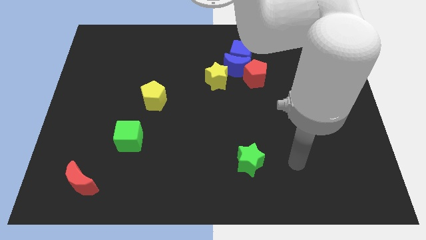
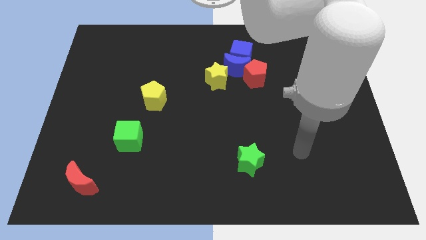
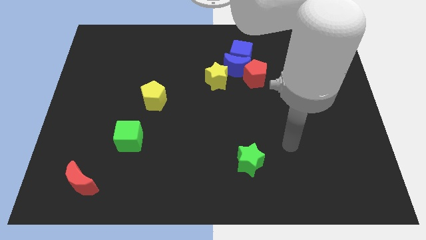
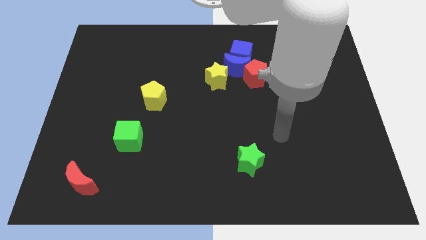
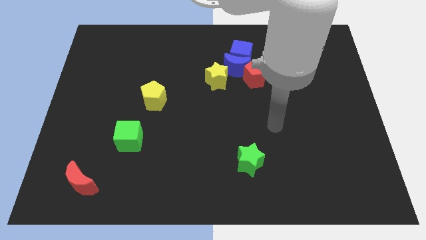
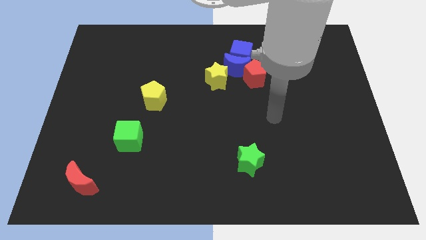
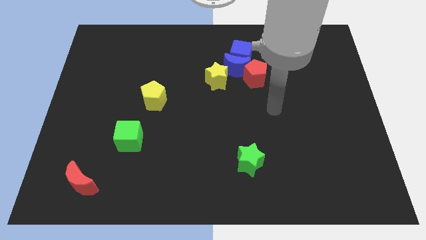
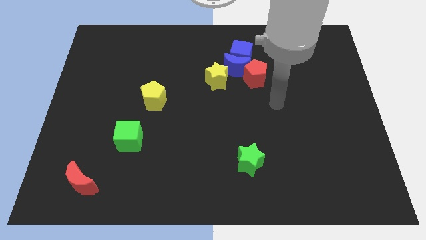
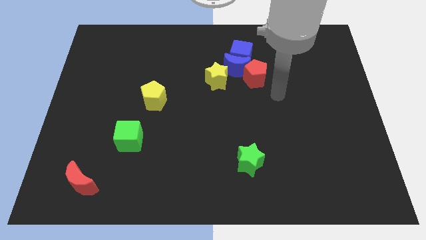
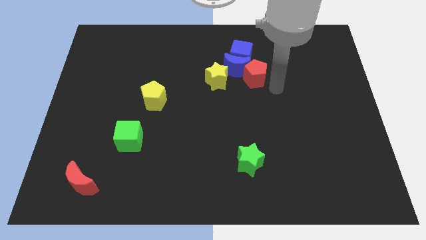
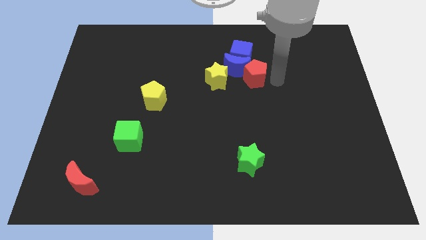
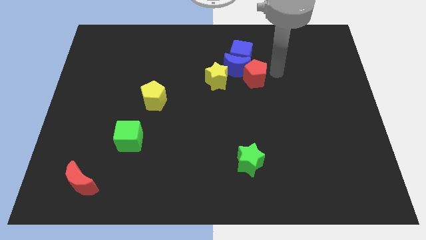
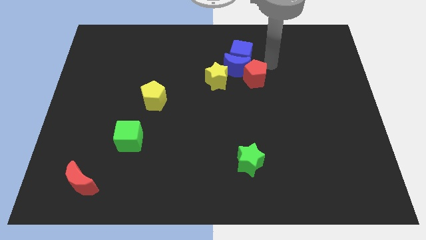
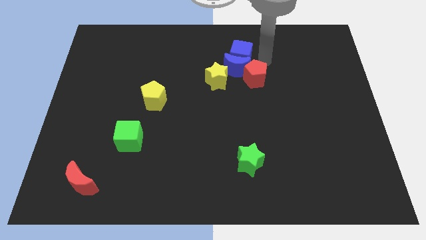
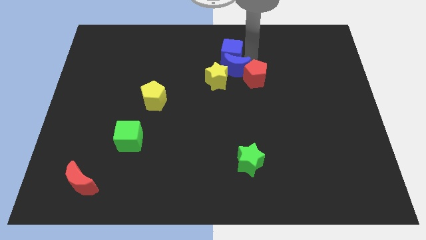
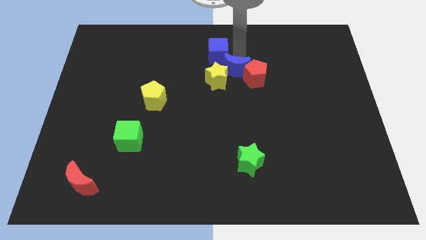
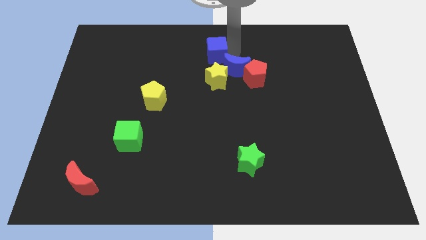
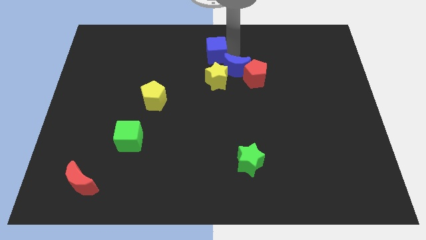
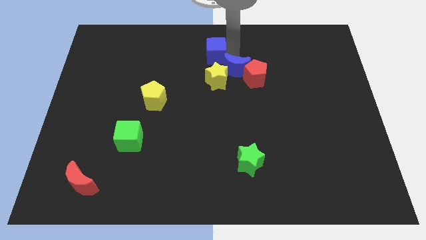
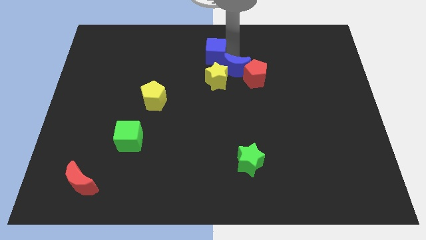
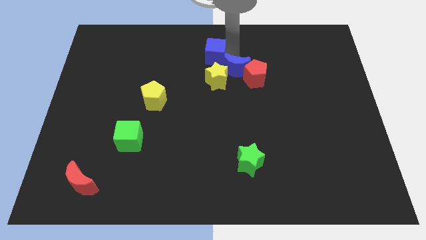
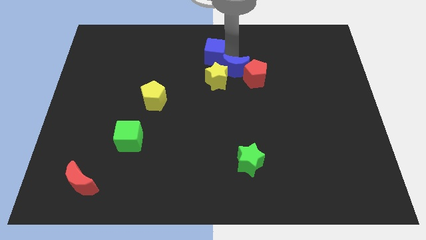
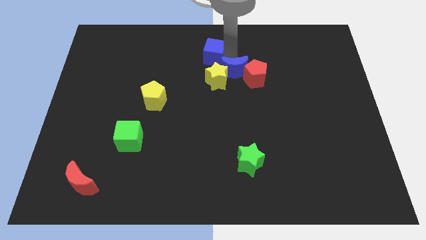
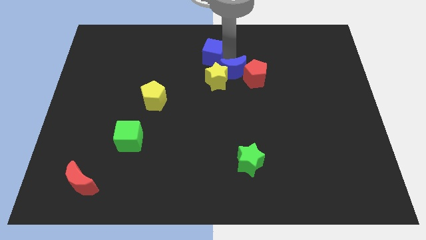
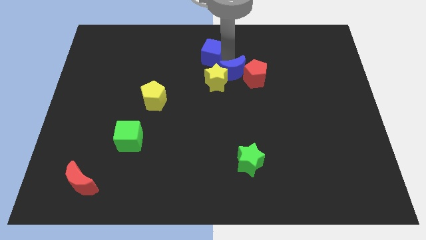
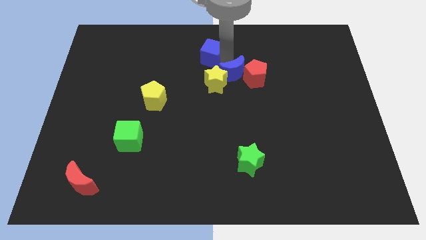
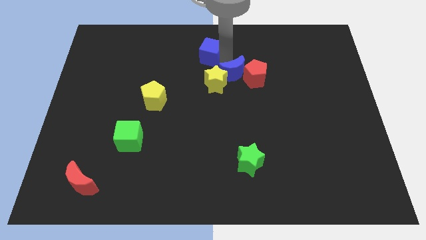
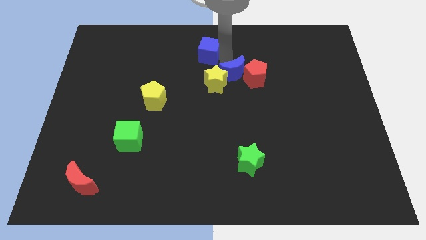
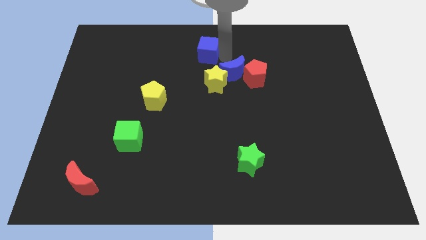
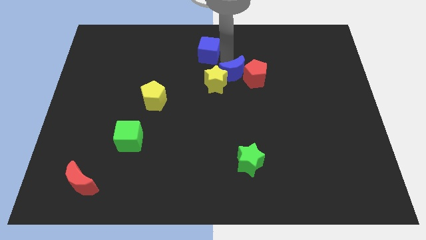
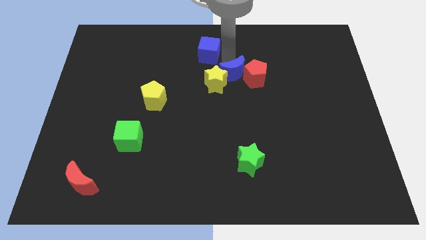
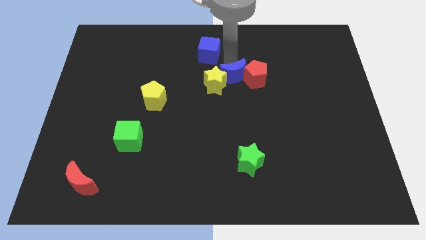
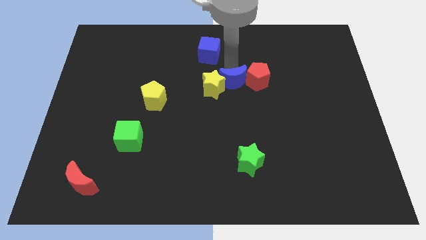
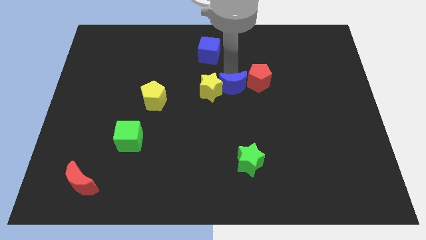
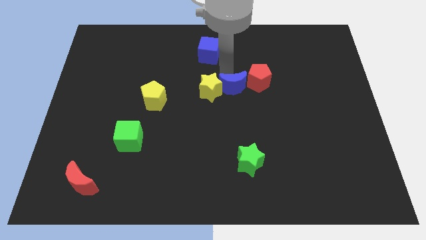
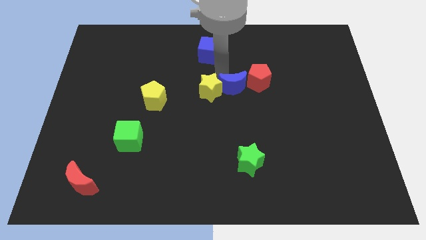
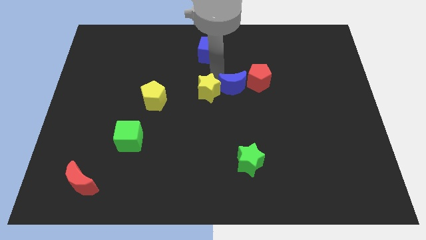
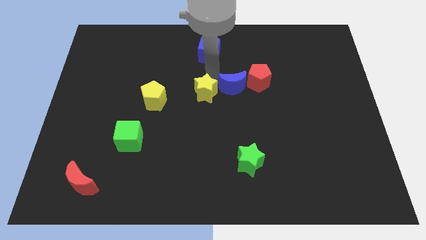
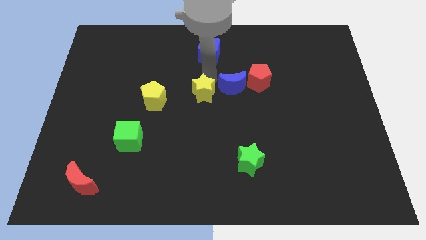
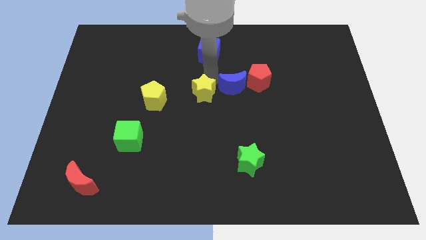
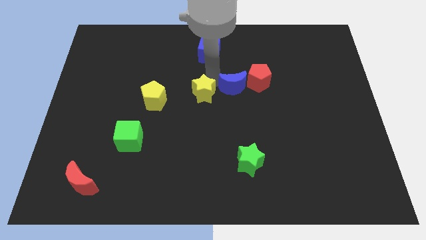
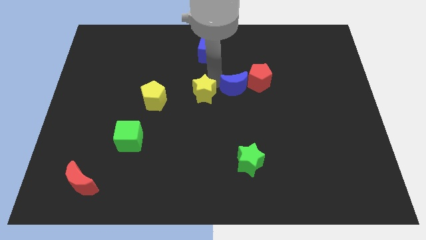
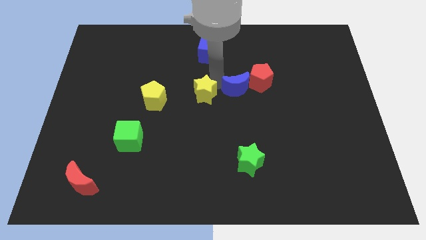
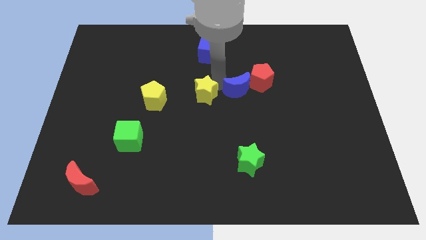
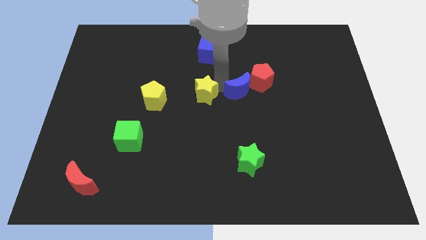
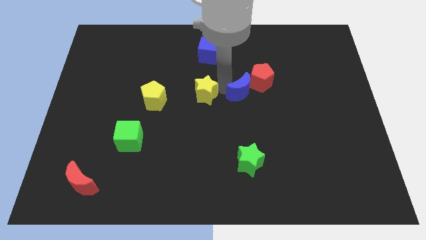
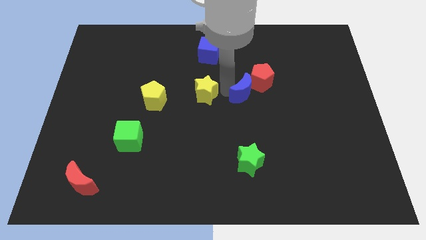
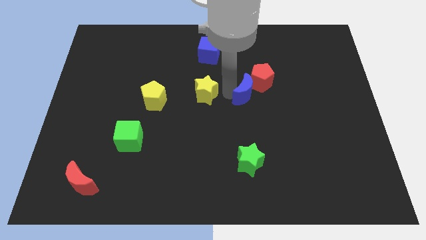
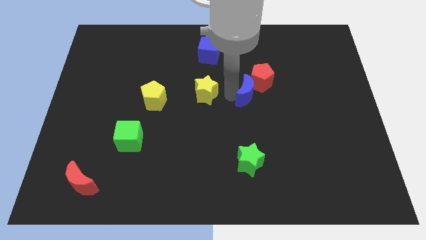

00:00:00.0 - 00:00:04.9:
slightly slide the blue moon down and to the right

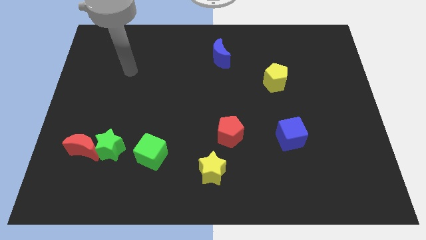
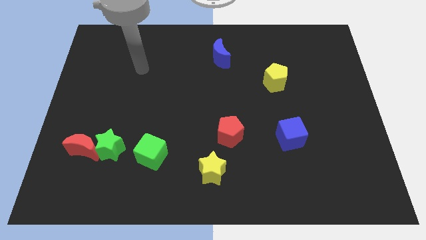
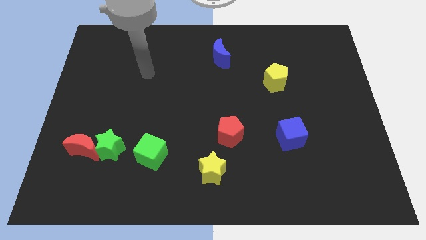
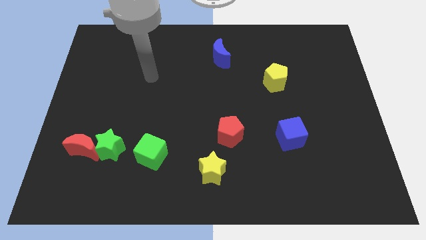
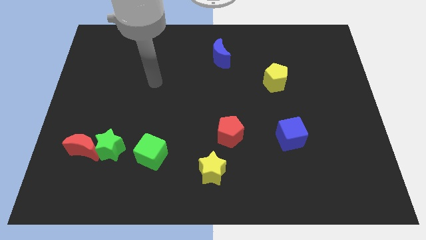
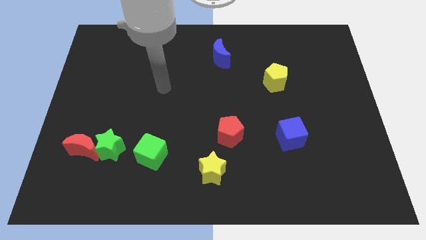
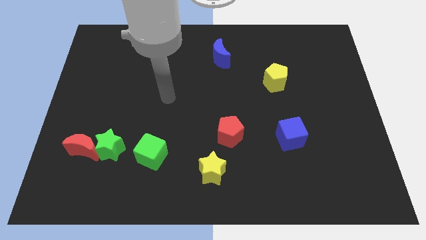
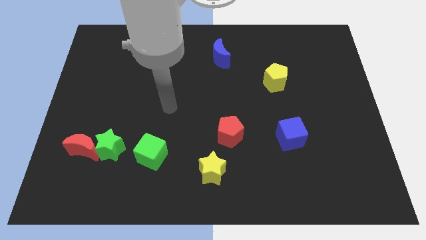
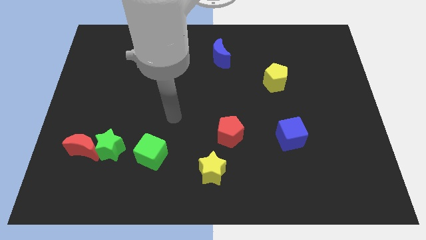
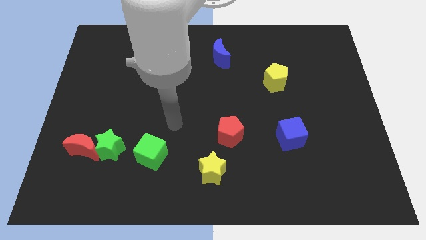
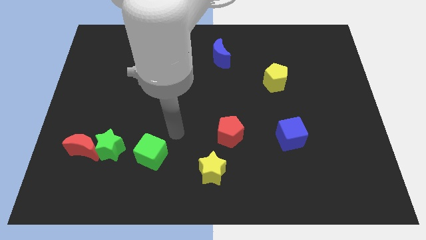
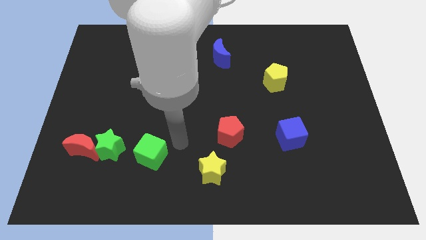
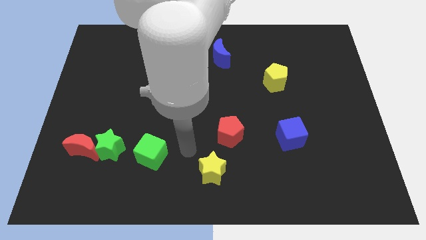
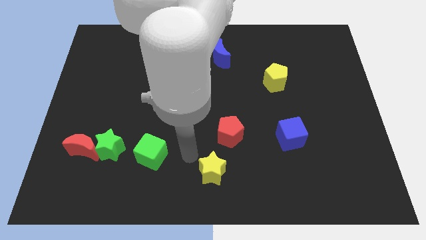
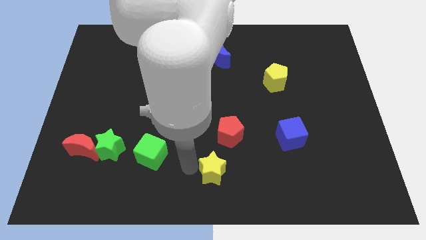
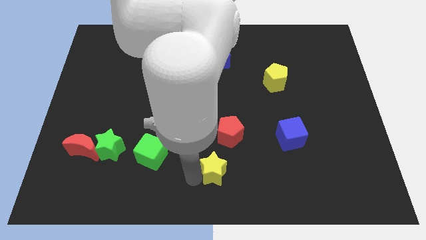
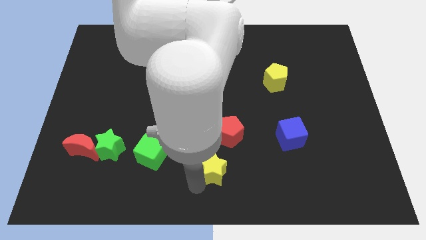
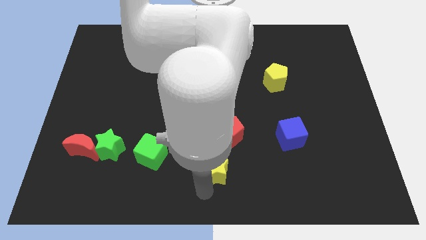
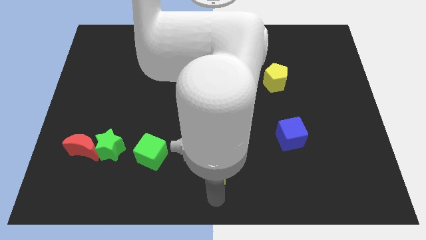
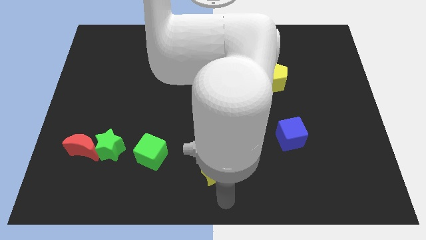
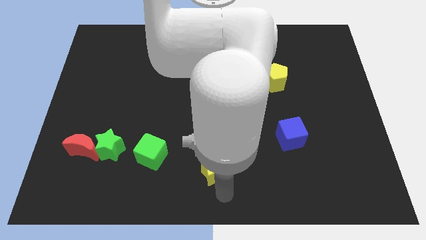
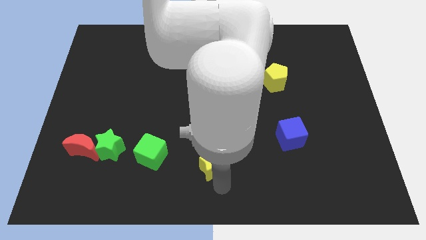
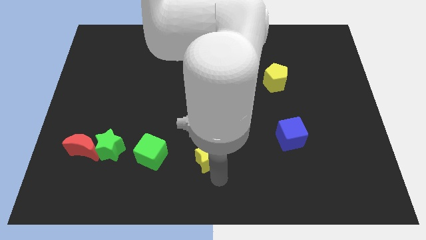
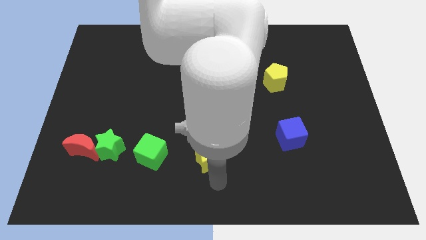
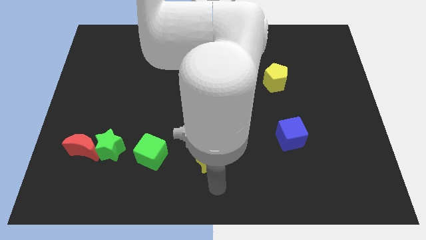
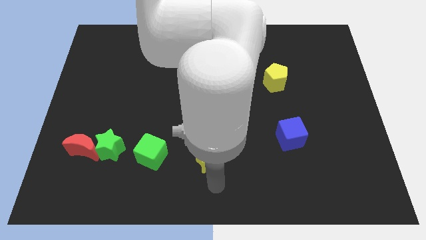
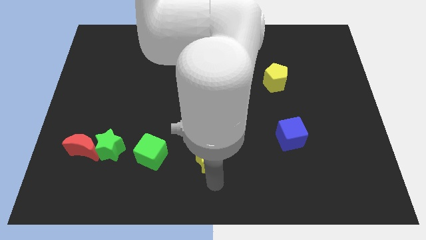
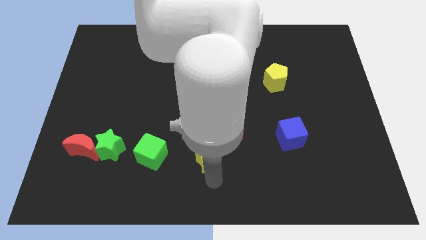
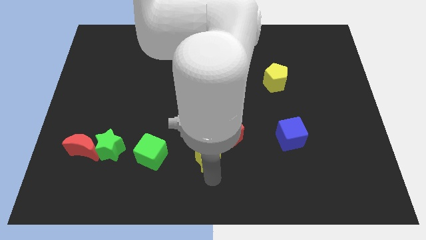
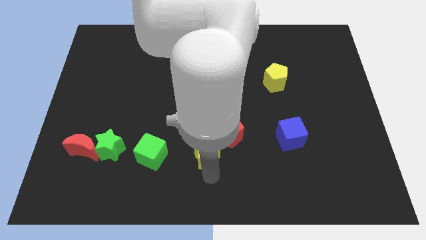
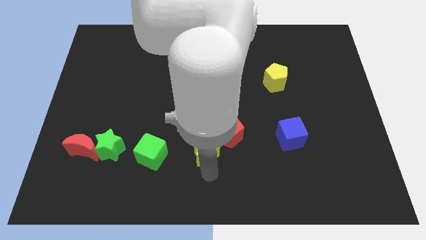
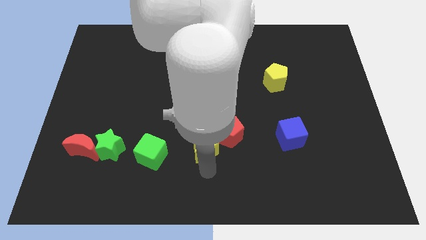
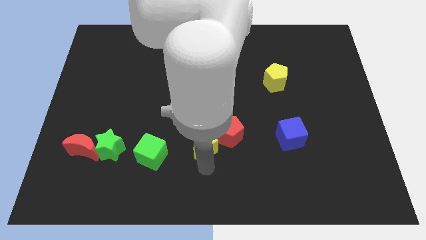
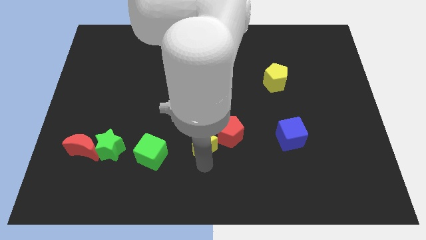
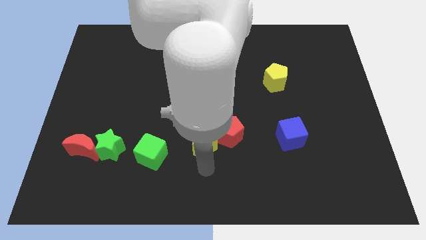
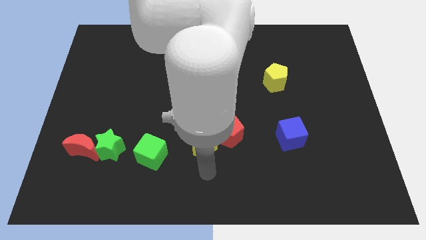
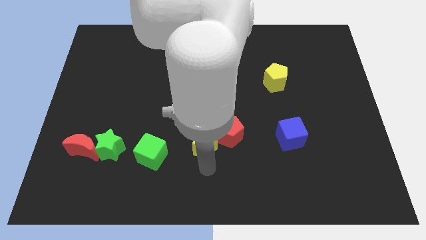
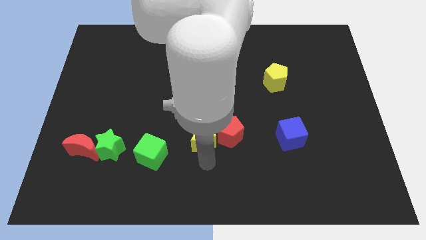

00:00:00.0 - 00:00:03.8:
slide the yellow star a little bit up

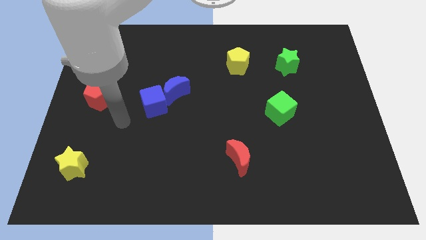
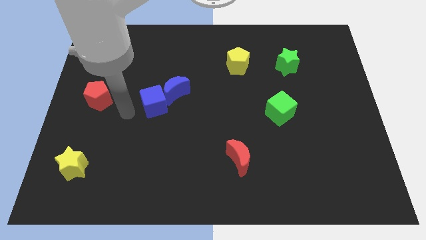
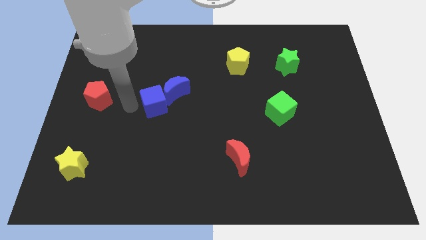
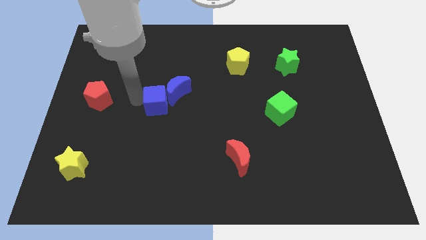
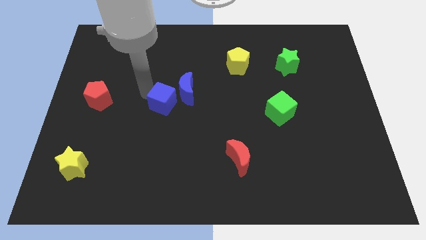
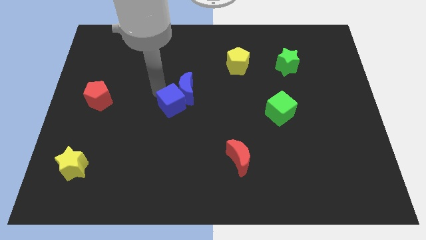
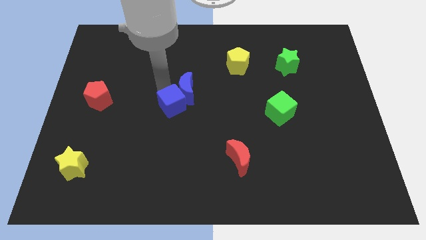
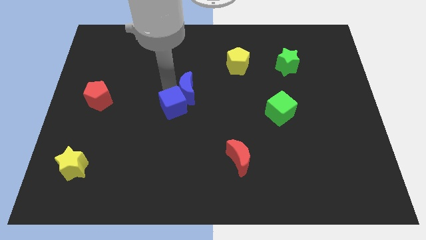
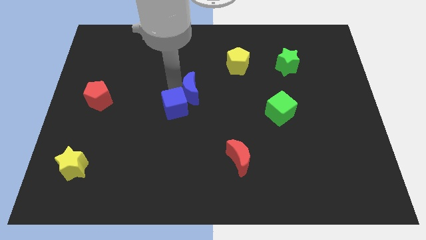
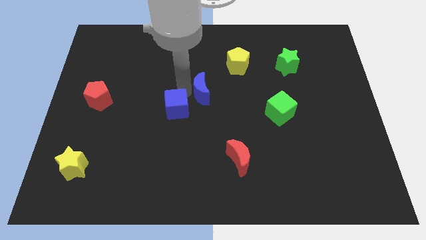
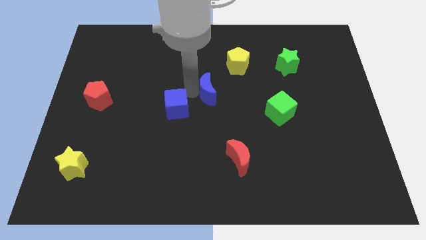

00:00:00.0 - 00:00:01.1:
slide the blue moon slightly right
